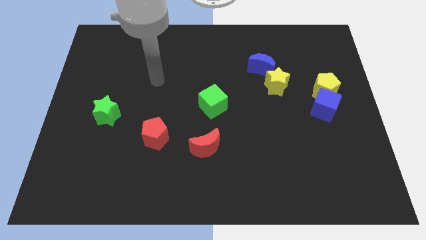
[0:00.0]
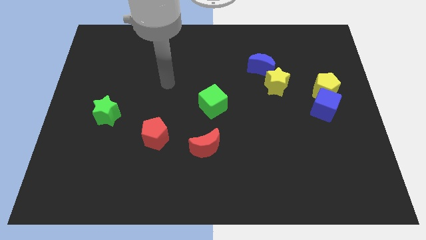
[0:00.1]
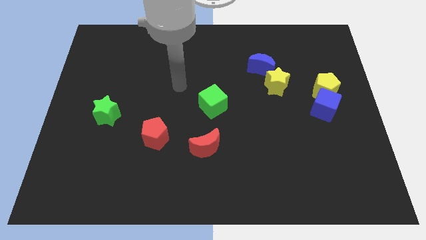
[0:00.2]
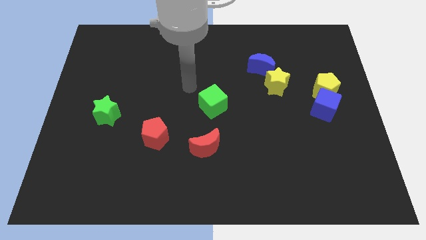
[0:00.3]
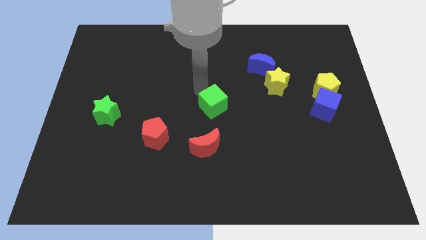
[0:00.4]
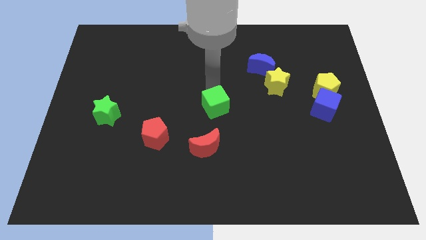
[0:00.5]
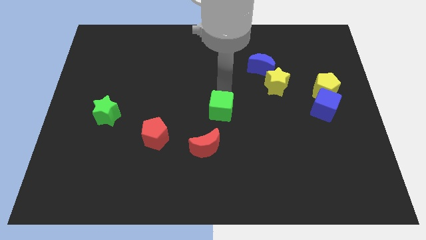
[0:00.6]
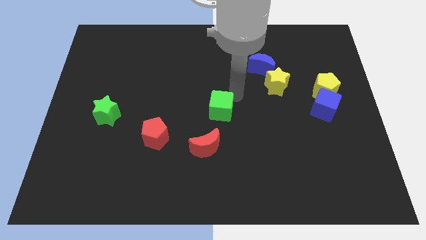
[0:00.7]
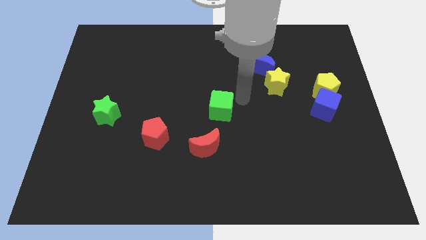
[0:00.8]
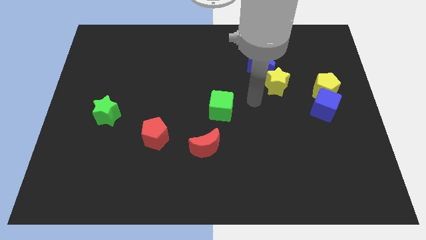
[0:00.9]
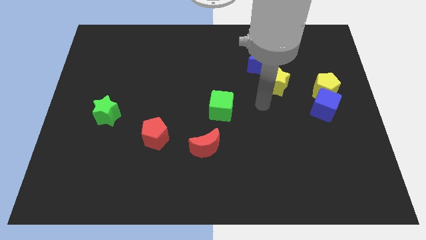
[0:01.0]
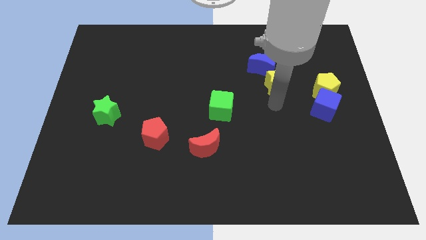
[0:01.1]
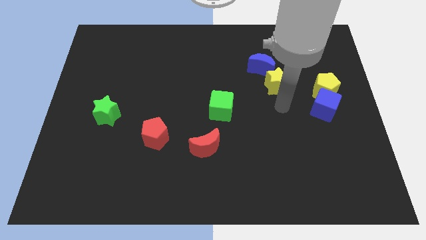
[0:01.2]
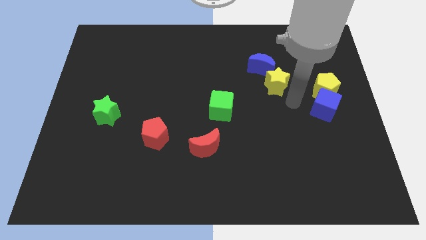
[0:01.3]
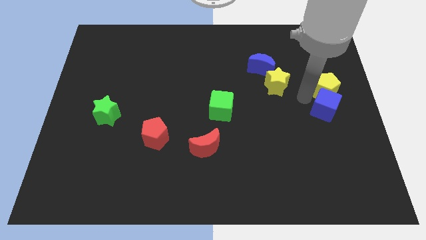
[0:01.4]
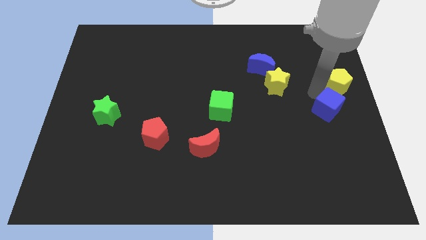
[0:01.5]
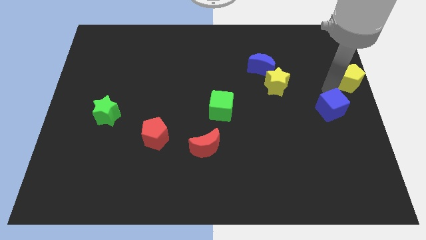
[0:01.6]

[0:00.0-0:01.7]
separate the blue cube from the yellow pentagon

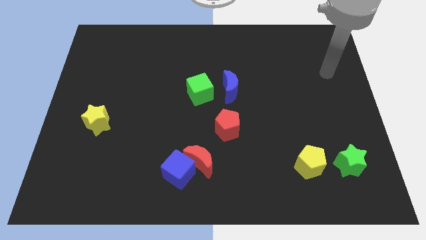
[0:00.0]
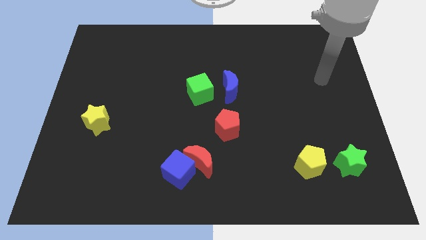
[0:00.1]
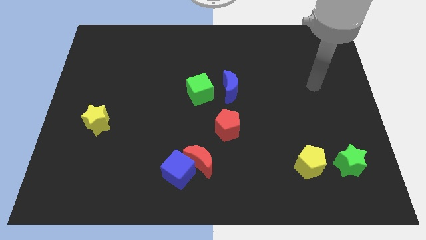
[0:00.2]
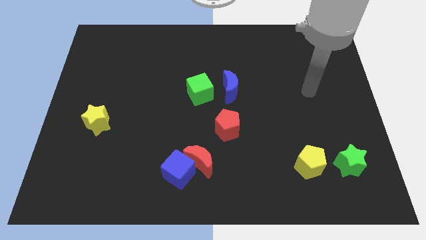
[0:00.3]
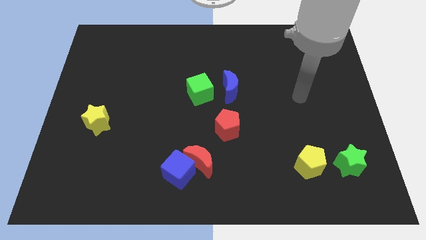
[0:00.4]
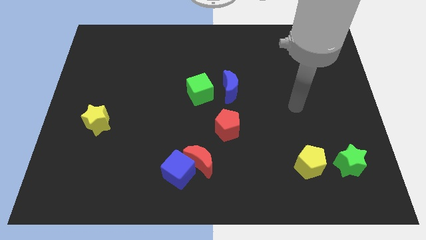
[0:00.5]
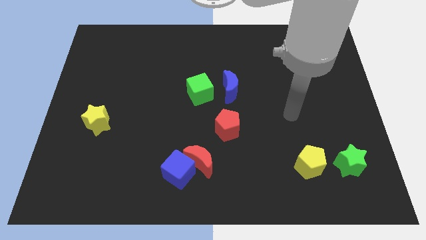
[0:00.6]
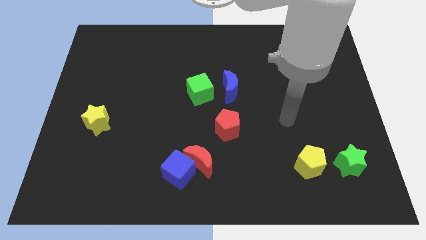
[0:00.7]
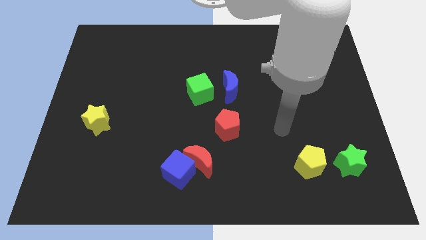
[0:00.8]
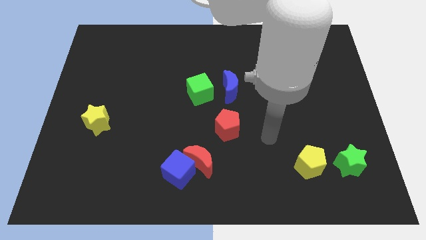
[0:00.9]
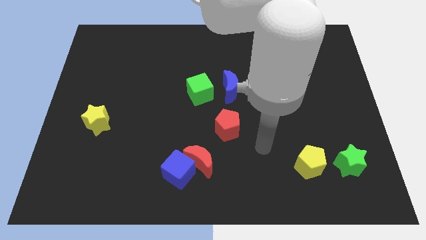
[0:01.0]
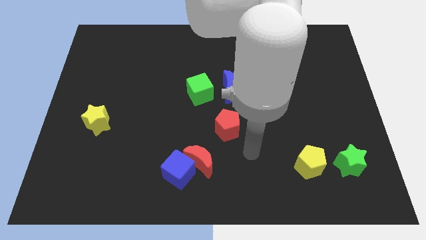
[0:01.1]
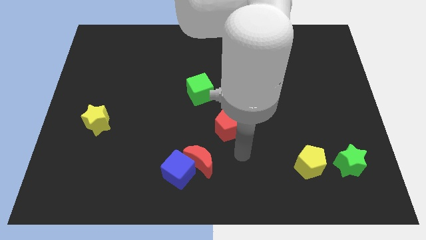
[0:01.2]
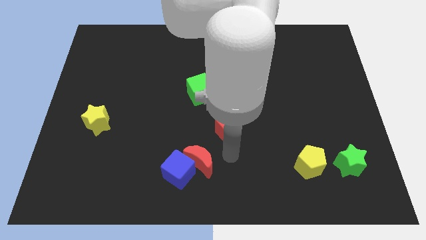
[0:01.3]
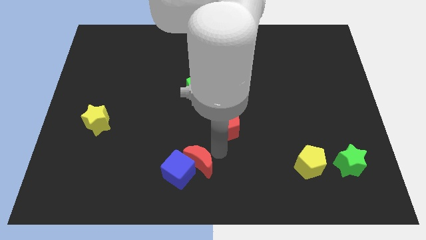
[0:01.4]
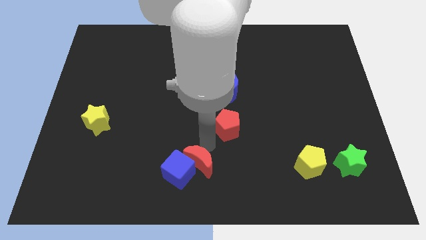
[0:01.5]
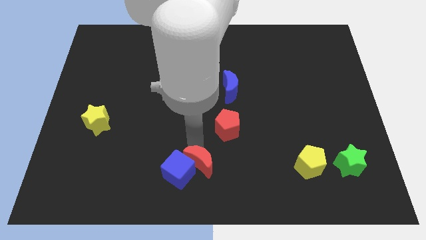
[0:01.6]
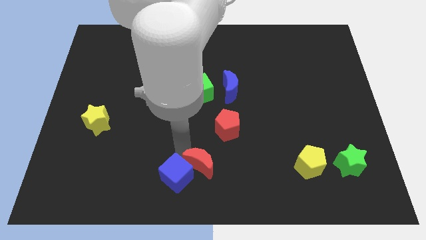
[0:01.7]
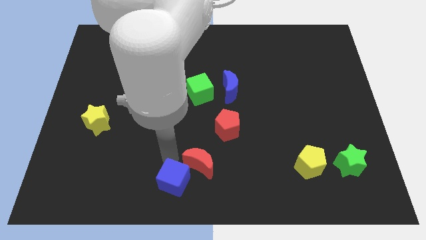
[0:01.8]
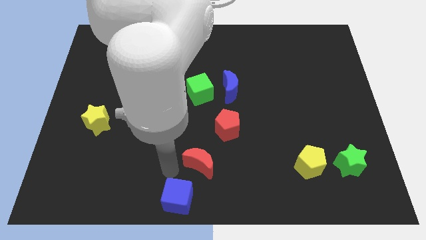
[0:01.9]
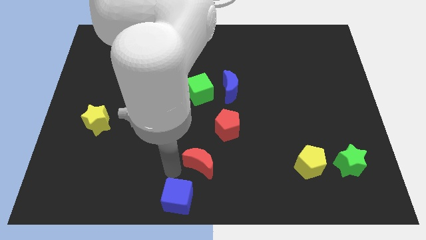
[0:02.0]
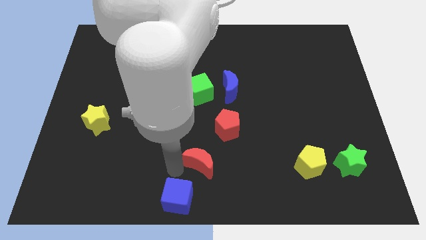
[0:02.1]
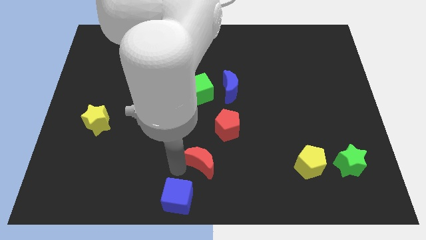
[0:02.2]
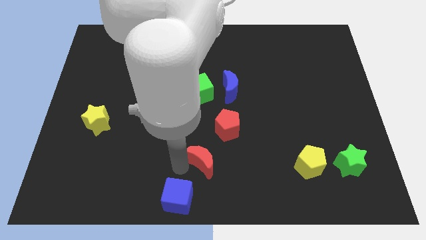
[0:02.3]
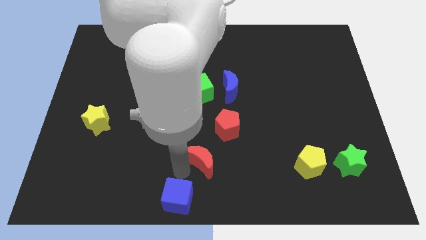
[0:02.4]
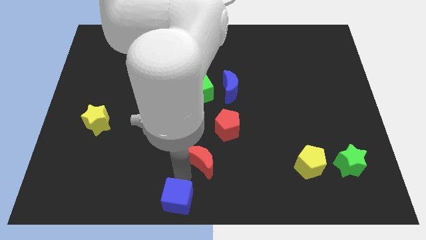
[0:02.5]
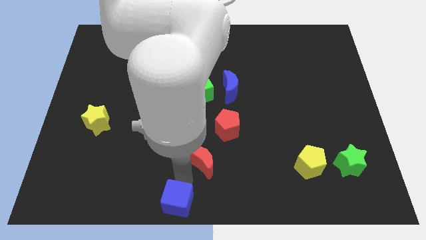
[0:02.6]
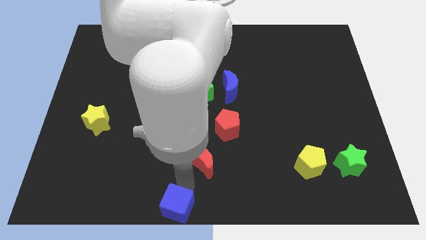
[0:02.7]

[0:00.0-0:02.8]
move the red moon away from the blue cube

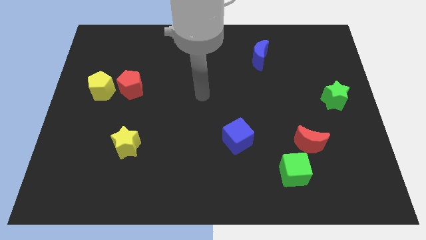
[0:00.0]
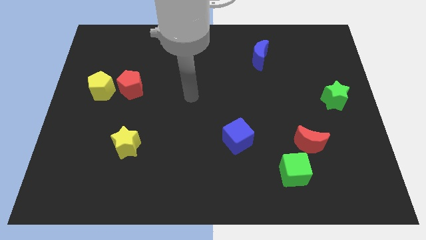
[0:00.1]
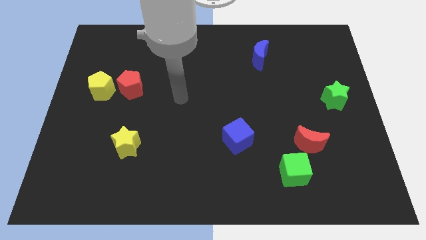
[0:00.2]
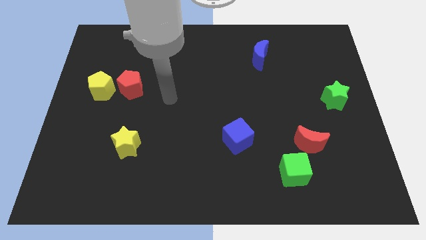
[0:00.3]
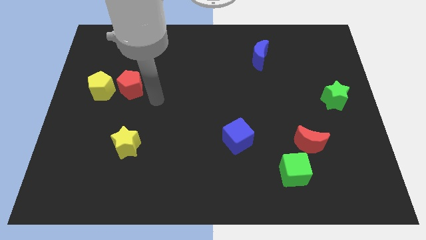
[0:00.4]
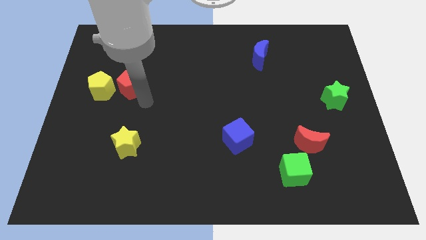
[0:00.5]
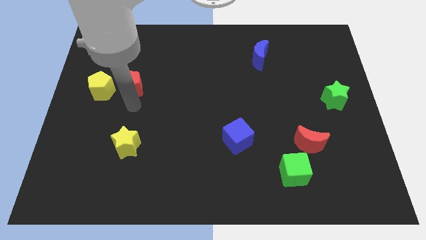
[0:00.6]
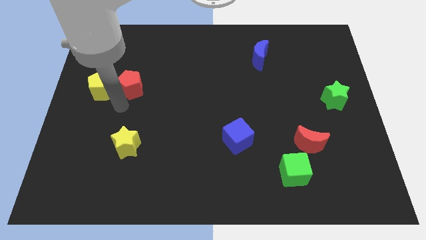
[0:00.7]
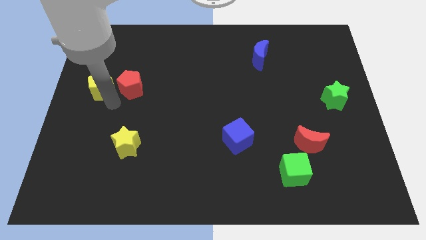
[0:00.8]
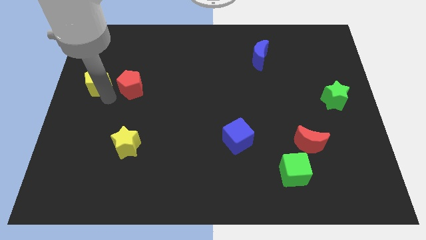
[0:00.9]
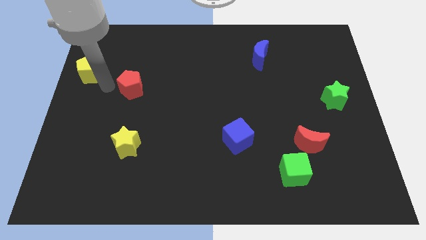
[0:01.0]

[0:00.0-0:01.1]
pull the red pentagon apart from the yellow pentagon

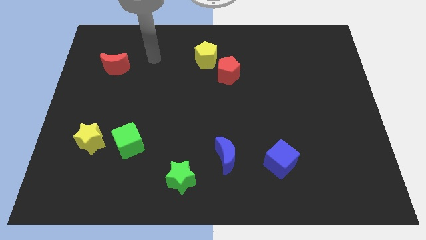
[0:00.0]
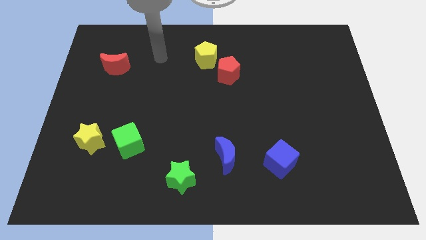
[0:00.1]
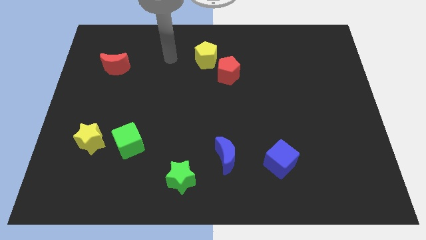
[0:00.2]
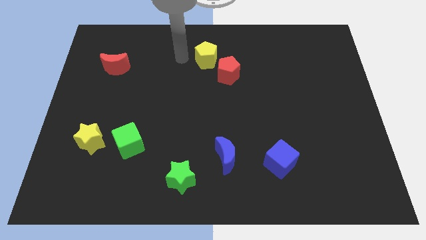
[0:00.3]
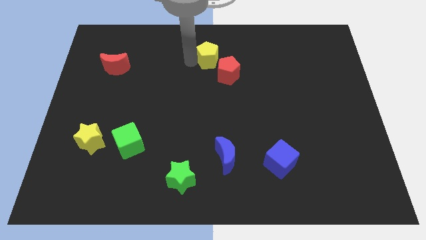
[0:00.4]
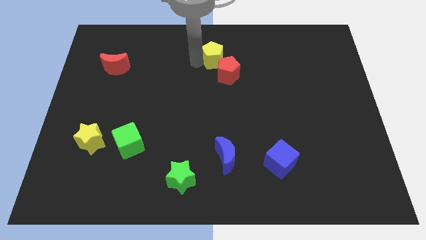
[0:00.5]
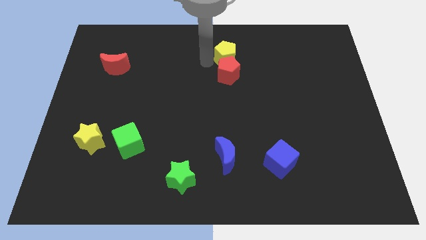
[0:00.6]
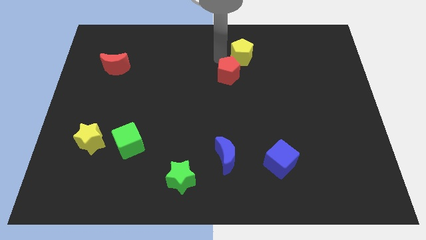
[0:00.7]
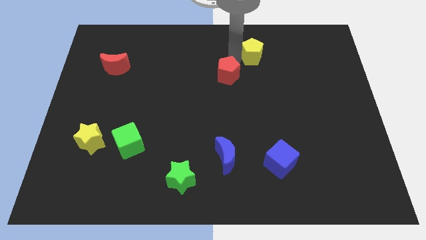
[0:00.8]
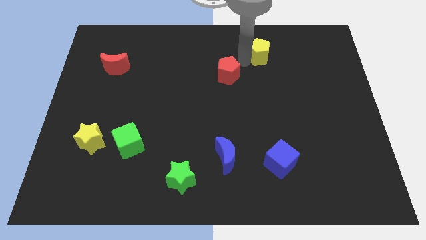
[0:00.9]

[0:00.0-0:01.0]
move the red pentagon away from the yellow pentagon

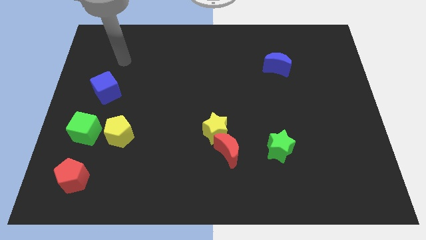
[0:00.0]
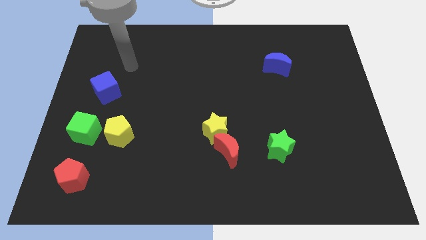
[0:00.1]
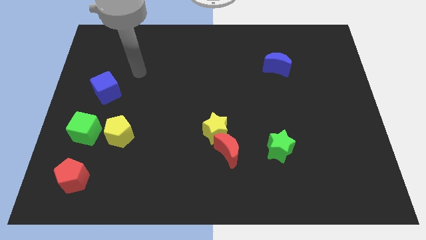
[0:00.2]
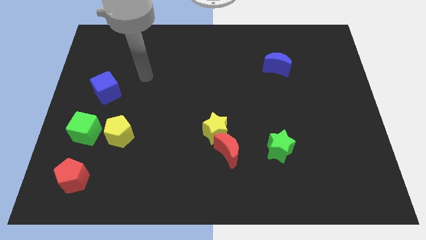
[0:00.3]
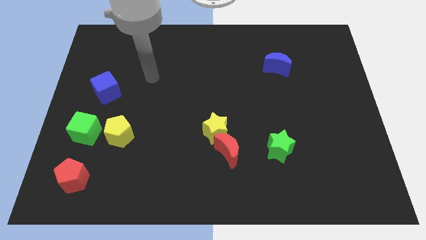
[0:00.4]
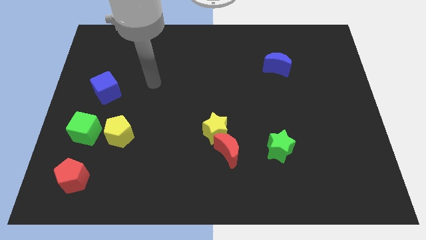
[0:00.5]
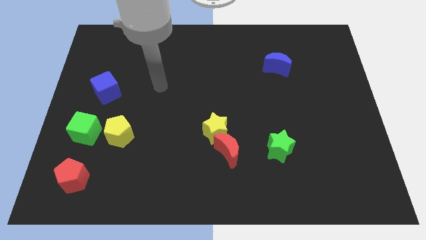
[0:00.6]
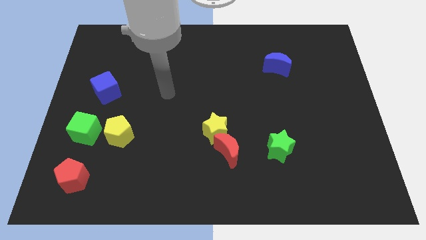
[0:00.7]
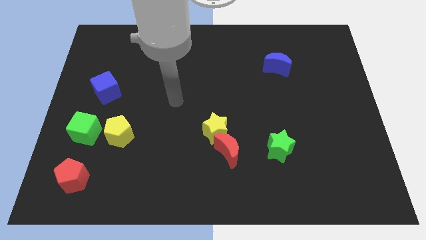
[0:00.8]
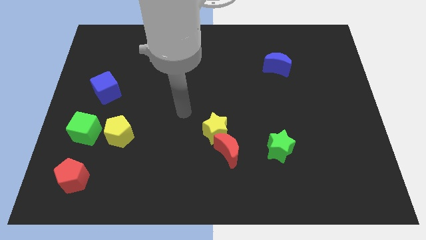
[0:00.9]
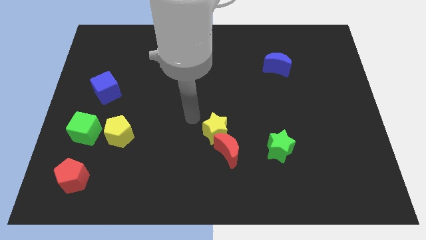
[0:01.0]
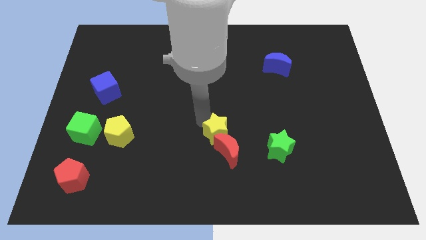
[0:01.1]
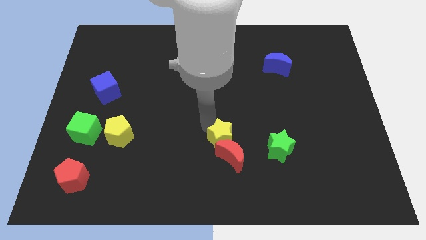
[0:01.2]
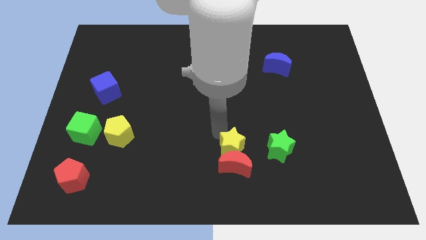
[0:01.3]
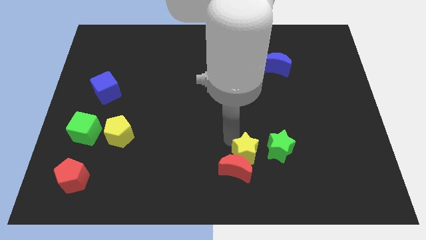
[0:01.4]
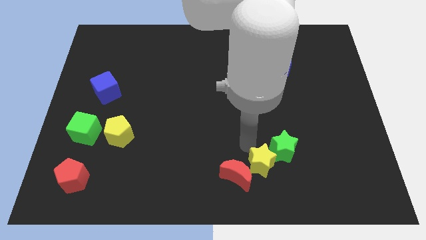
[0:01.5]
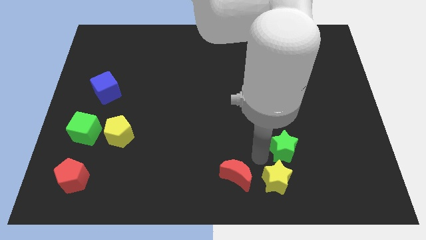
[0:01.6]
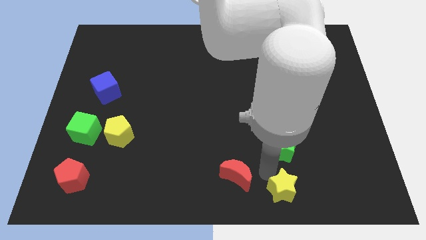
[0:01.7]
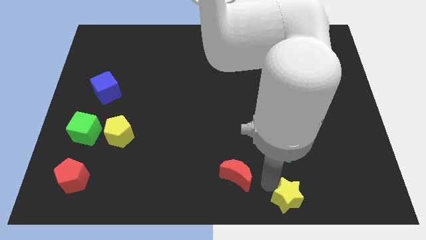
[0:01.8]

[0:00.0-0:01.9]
move the red moon away from the yellow star

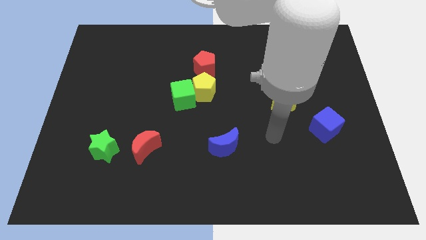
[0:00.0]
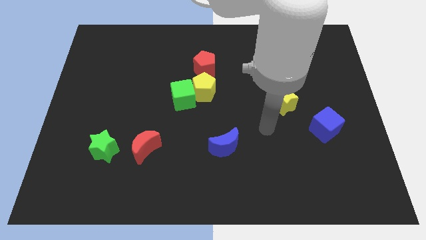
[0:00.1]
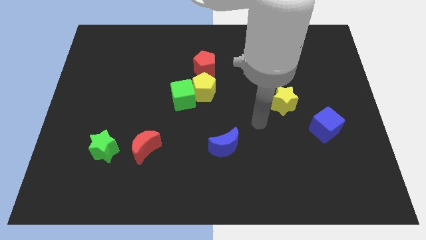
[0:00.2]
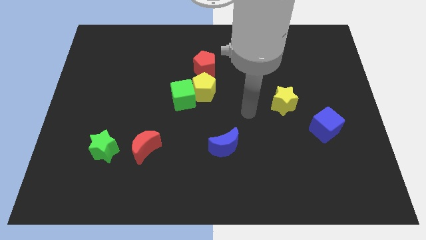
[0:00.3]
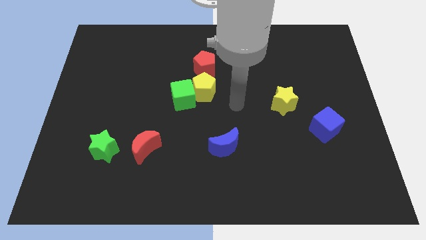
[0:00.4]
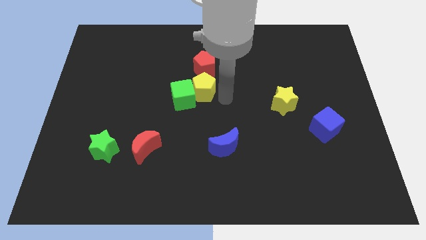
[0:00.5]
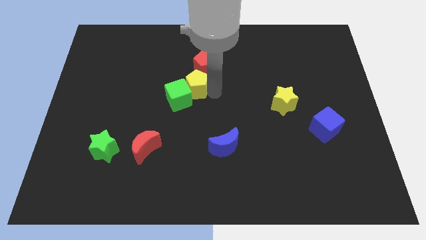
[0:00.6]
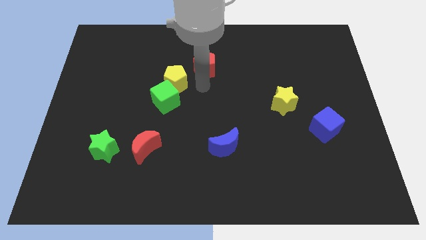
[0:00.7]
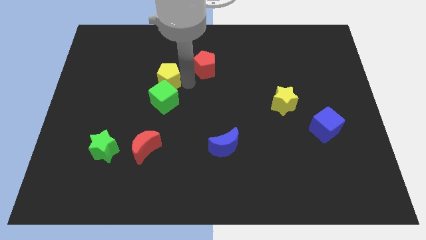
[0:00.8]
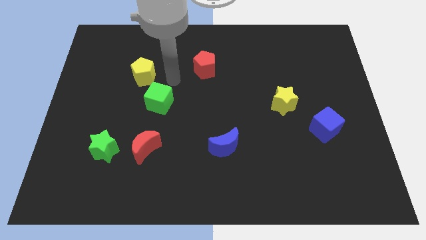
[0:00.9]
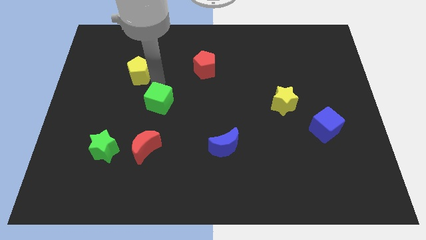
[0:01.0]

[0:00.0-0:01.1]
separate the green cube from the yellow pentagon
